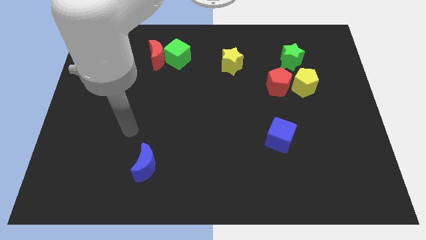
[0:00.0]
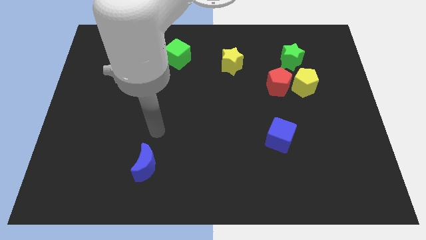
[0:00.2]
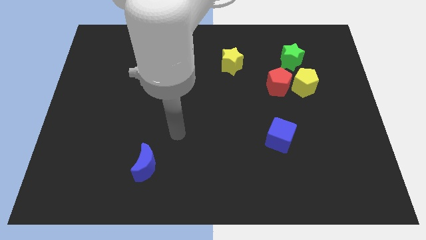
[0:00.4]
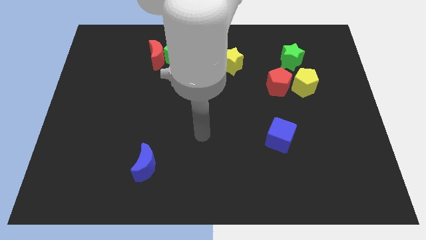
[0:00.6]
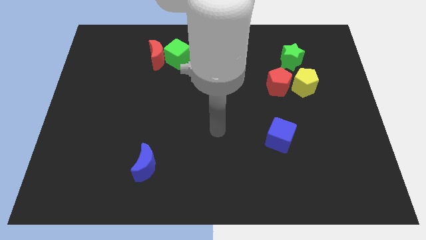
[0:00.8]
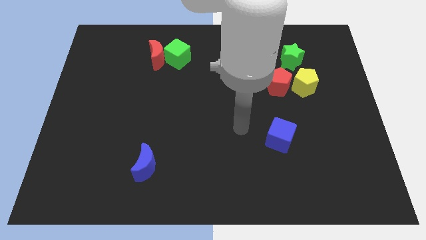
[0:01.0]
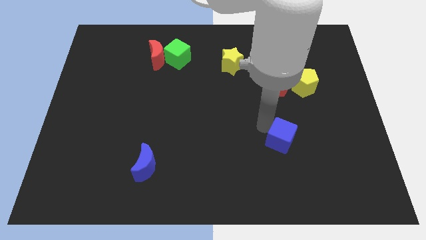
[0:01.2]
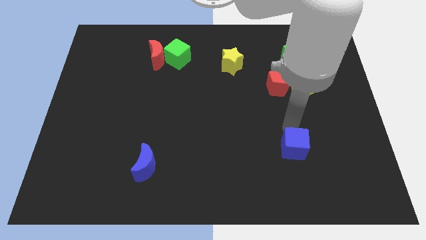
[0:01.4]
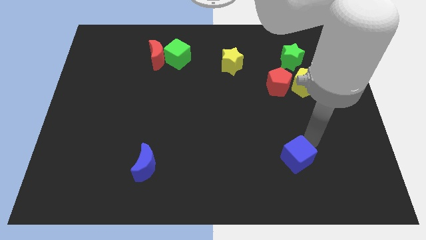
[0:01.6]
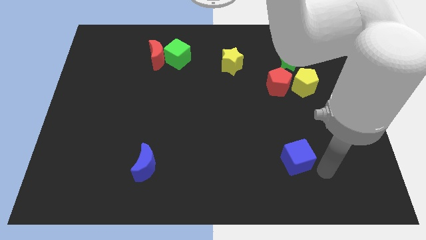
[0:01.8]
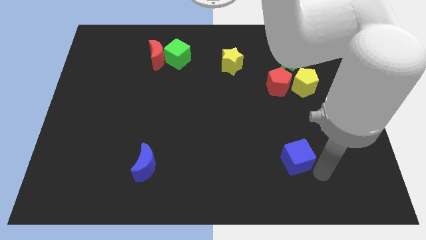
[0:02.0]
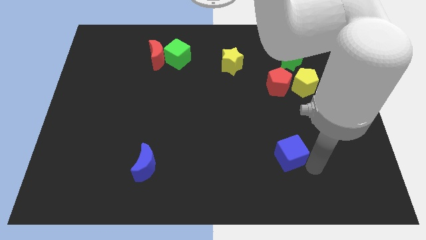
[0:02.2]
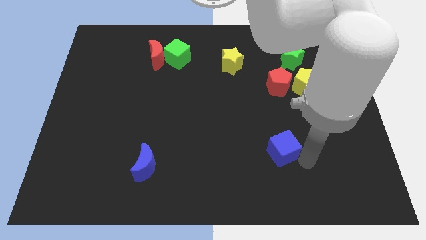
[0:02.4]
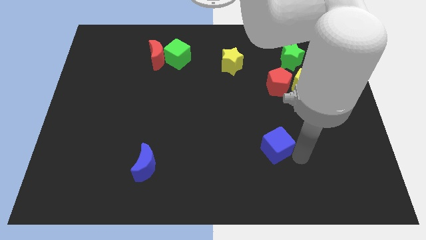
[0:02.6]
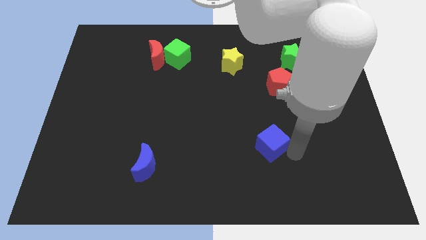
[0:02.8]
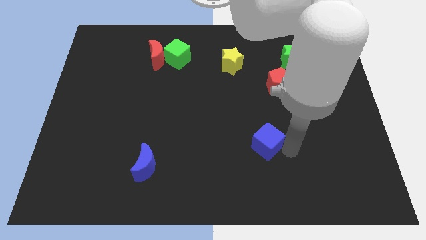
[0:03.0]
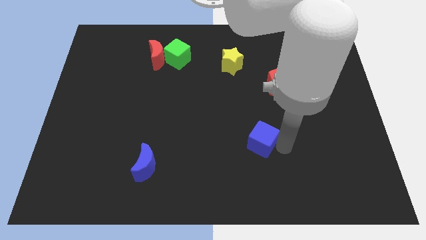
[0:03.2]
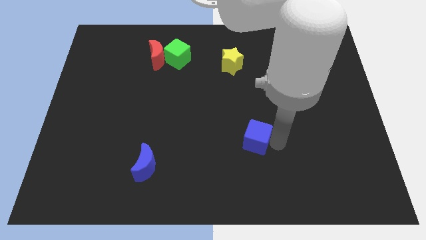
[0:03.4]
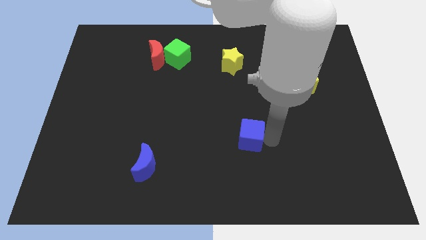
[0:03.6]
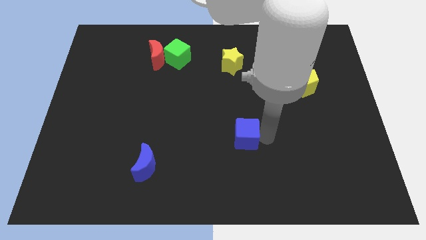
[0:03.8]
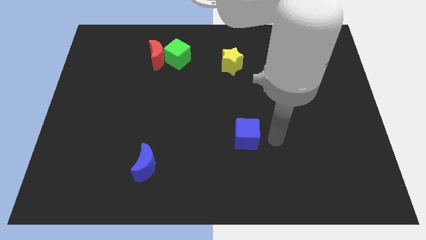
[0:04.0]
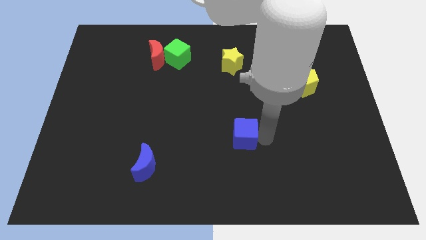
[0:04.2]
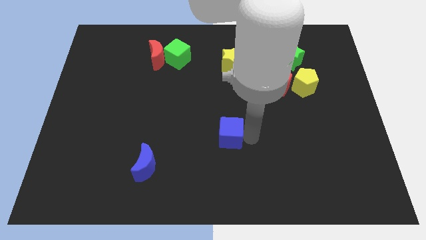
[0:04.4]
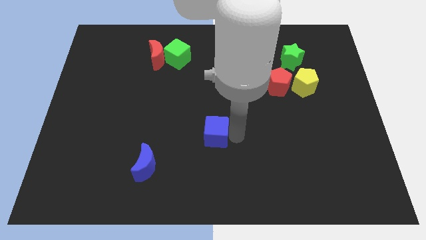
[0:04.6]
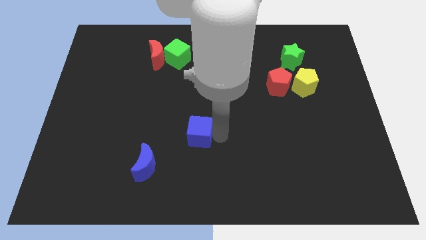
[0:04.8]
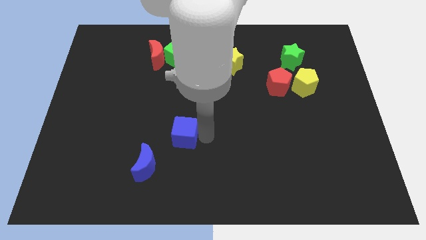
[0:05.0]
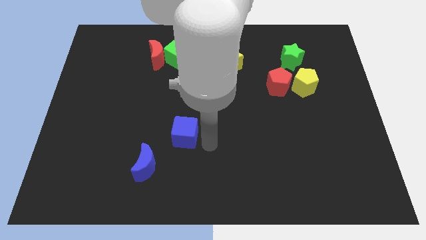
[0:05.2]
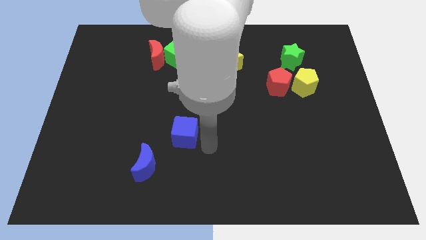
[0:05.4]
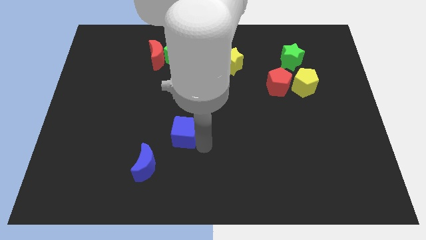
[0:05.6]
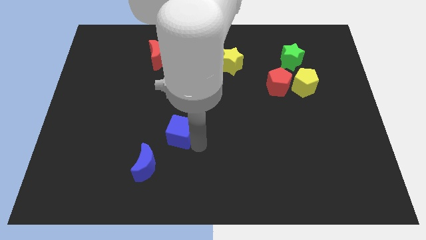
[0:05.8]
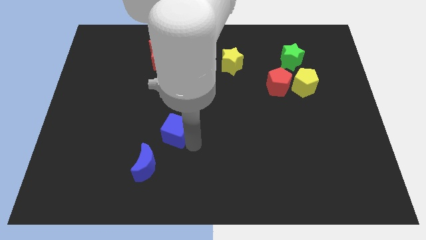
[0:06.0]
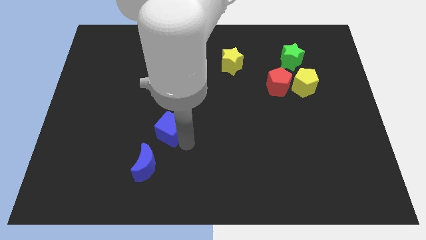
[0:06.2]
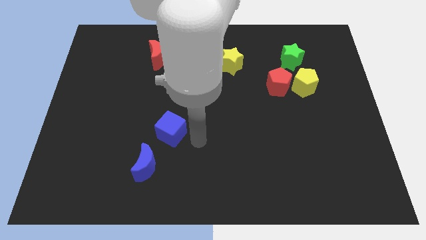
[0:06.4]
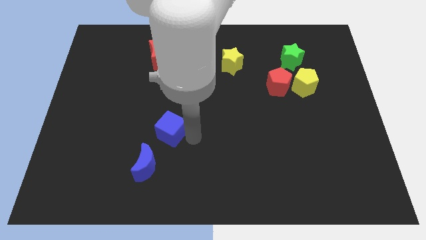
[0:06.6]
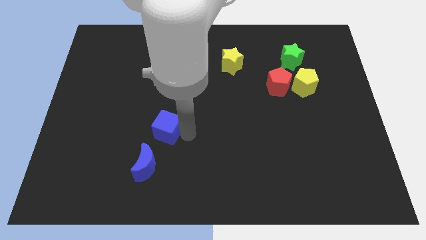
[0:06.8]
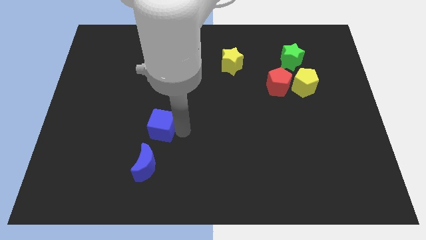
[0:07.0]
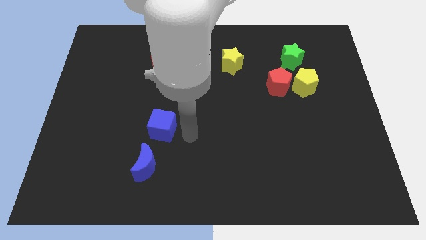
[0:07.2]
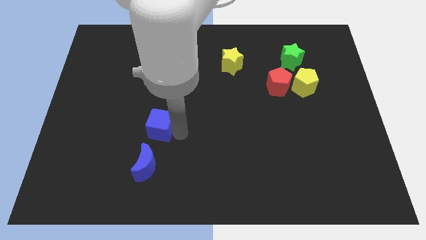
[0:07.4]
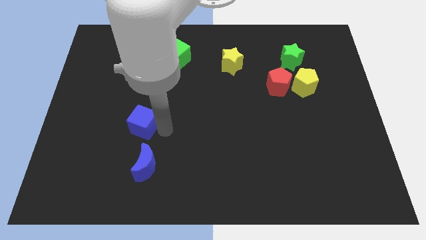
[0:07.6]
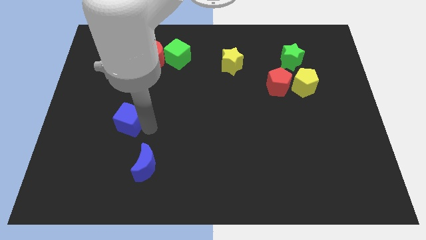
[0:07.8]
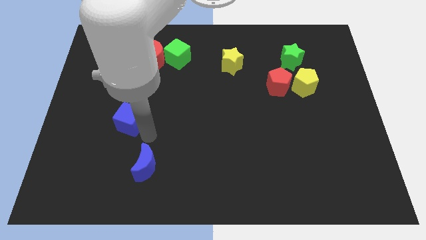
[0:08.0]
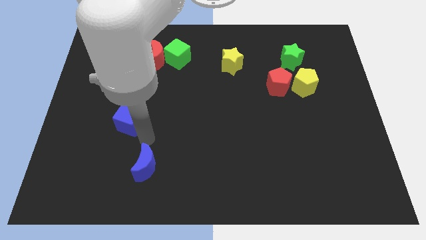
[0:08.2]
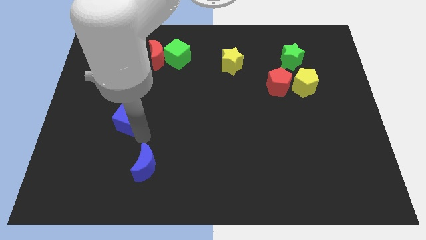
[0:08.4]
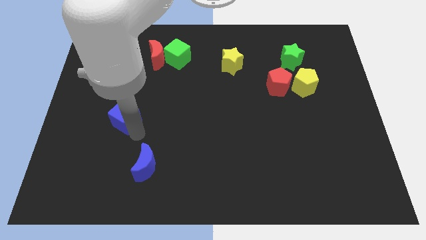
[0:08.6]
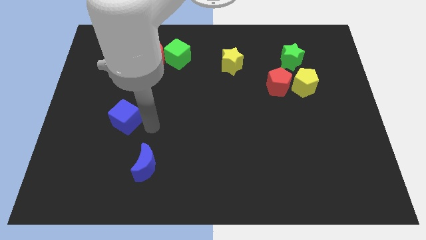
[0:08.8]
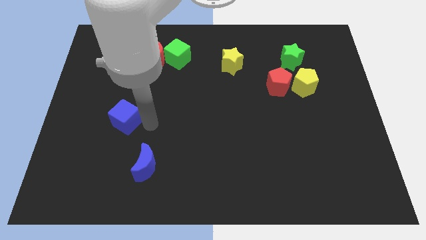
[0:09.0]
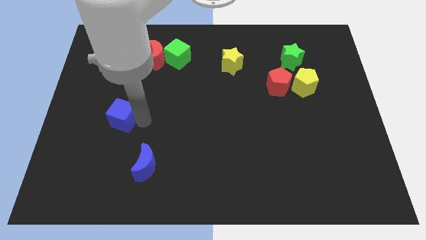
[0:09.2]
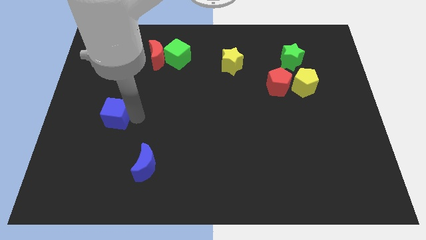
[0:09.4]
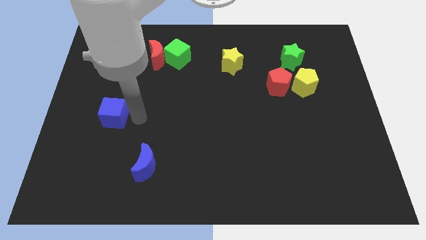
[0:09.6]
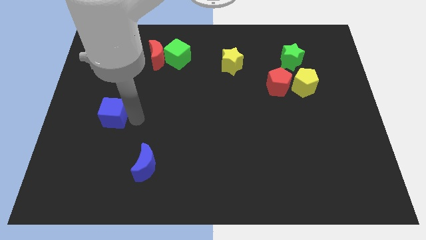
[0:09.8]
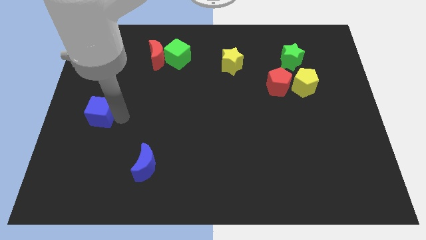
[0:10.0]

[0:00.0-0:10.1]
put the blue cube to the center left

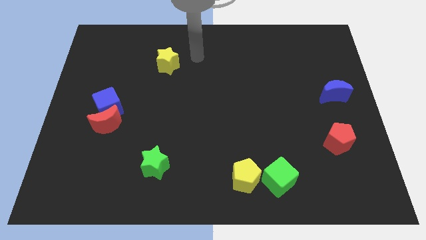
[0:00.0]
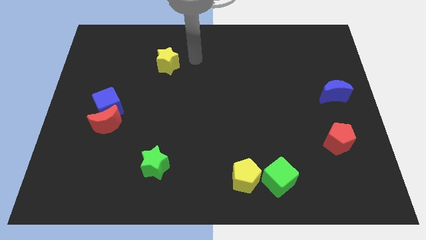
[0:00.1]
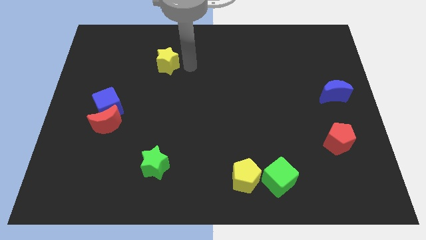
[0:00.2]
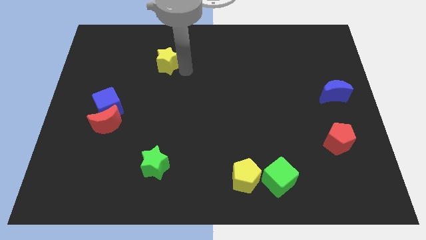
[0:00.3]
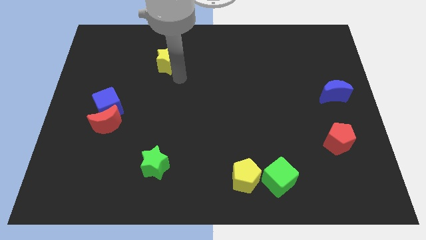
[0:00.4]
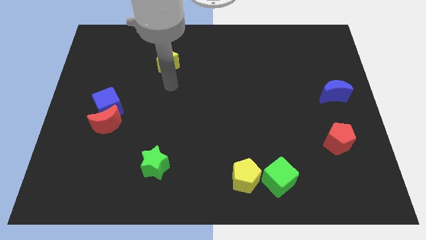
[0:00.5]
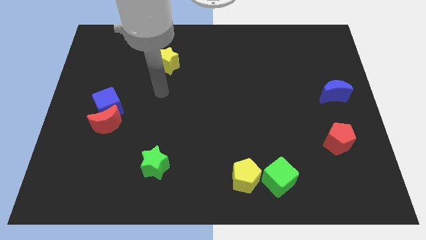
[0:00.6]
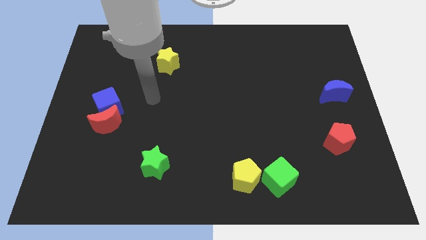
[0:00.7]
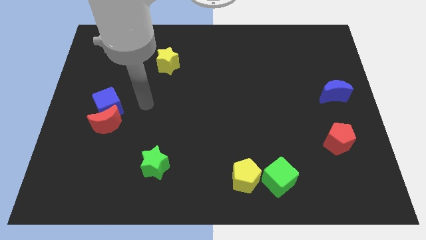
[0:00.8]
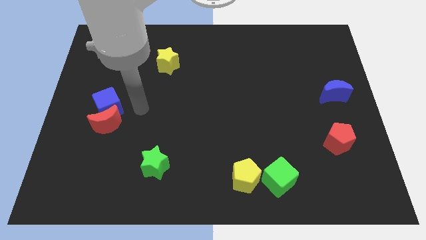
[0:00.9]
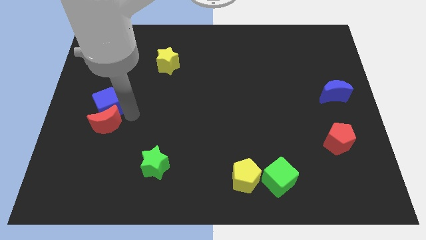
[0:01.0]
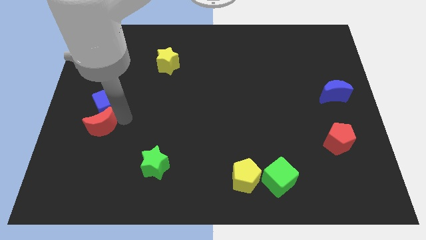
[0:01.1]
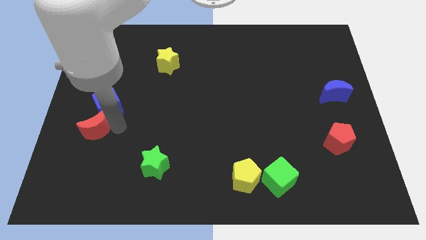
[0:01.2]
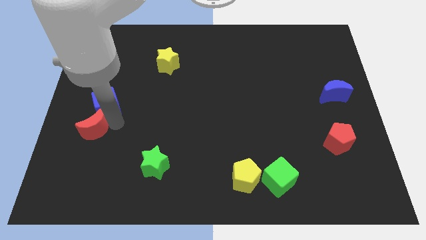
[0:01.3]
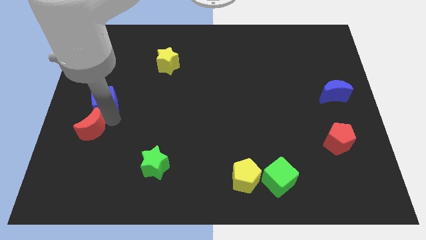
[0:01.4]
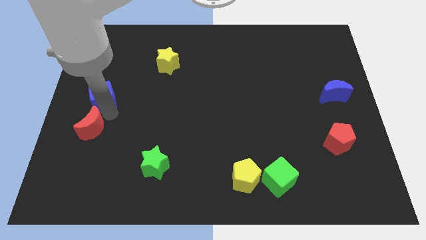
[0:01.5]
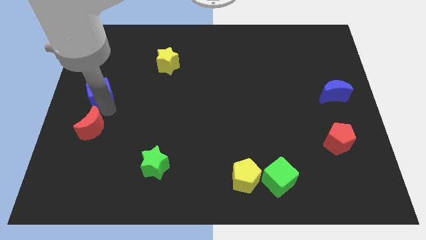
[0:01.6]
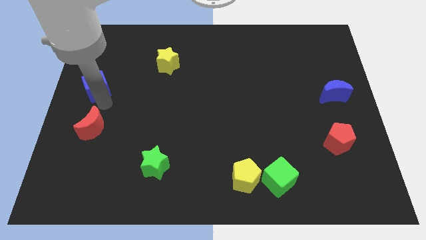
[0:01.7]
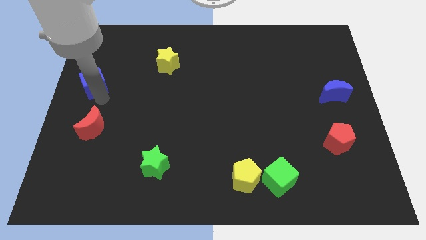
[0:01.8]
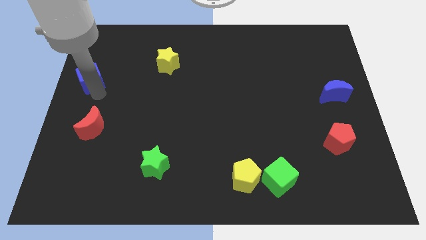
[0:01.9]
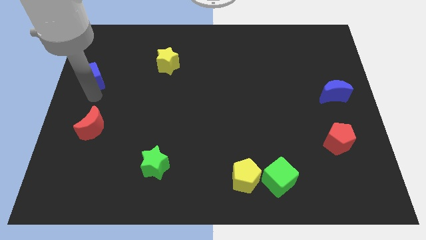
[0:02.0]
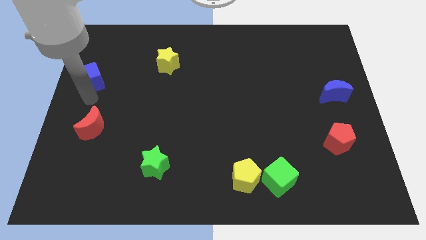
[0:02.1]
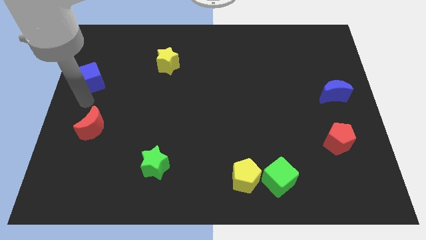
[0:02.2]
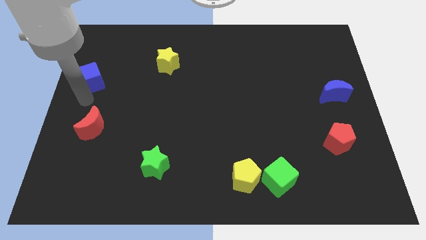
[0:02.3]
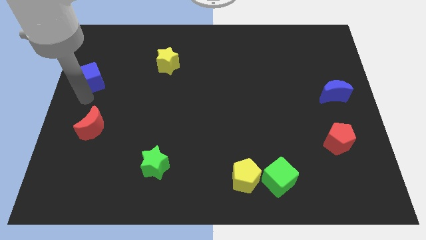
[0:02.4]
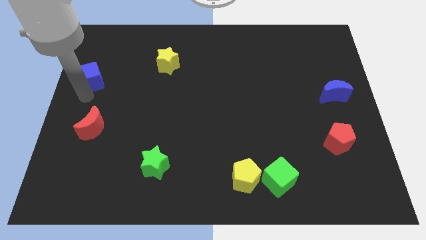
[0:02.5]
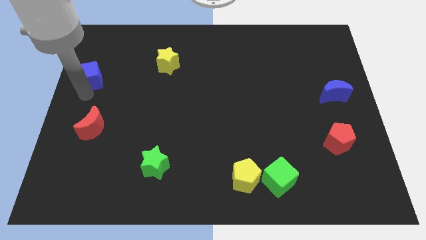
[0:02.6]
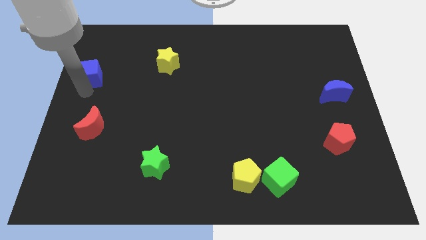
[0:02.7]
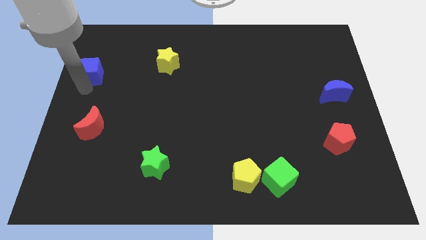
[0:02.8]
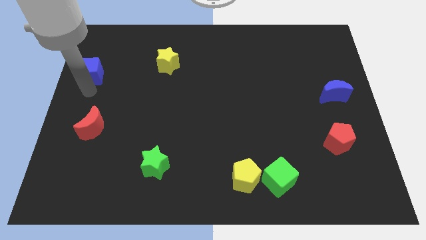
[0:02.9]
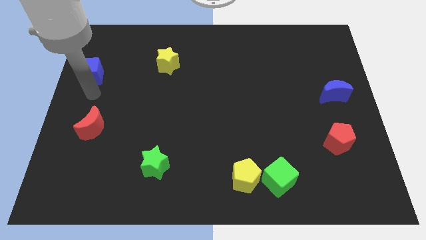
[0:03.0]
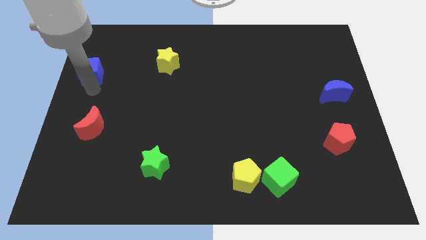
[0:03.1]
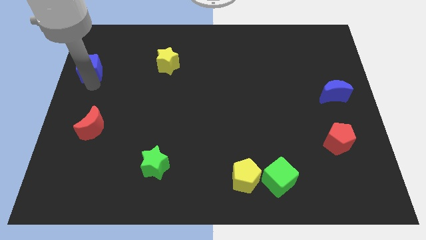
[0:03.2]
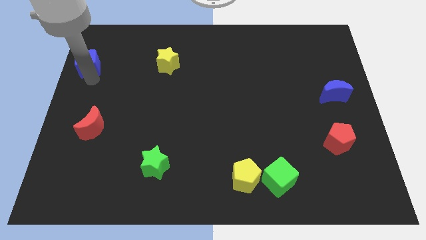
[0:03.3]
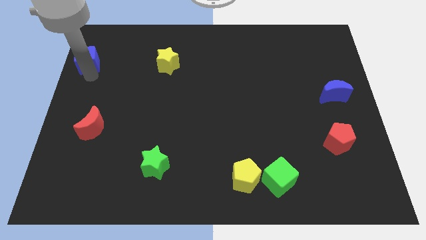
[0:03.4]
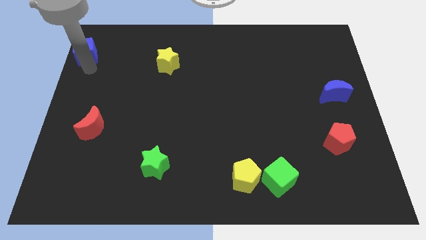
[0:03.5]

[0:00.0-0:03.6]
move the blue cube to the top left corner
